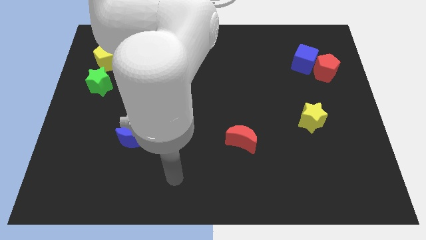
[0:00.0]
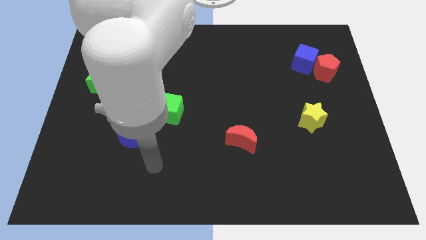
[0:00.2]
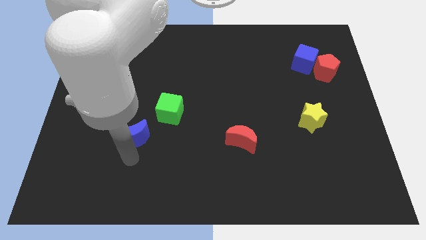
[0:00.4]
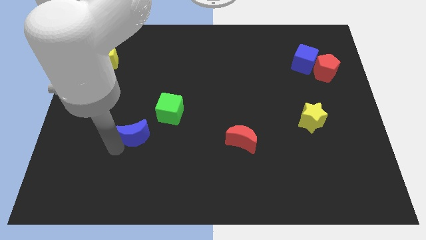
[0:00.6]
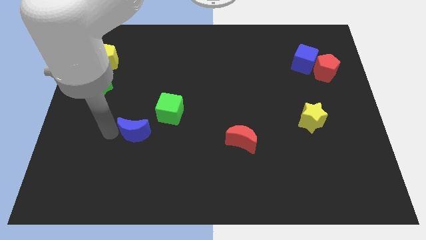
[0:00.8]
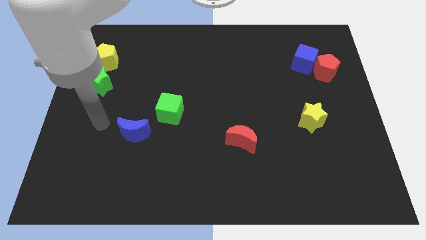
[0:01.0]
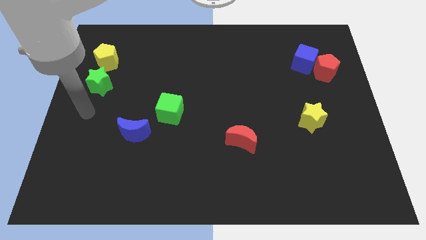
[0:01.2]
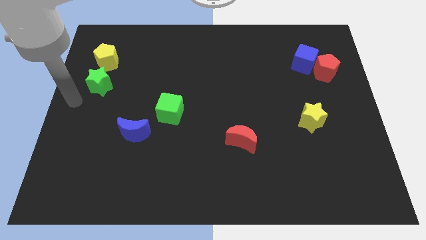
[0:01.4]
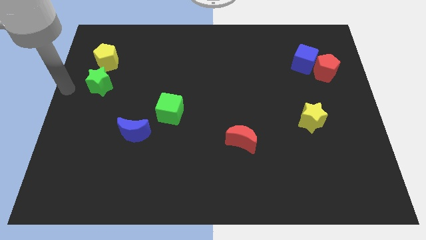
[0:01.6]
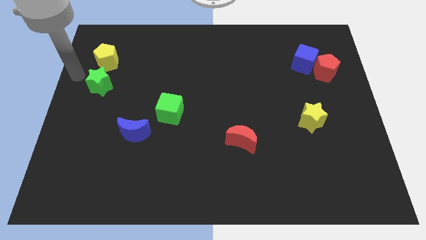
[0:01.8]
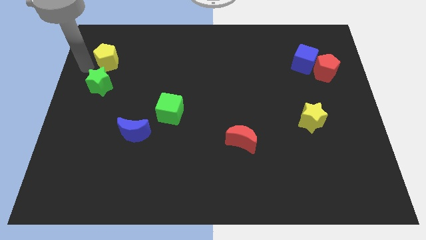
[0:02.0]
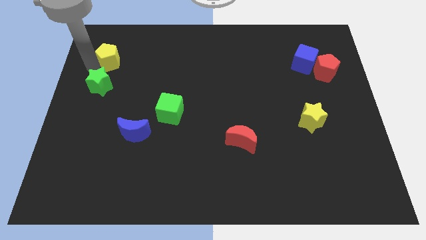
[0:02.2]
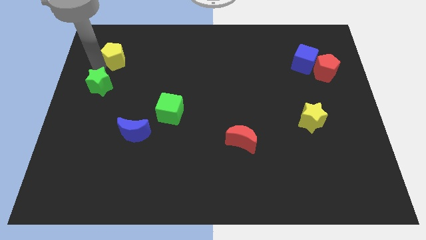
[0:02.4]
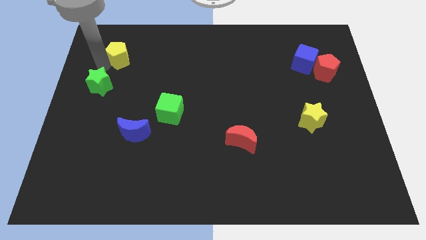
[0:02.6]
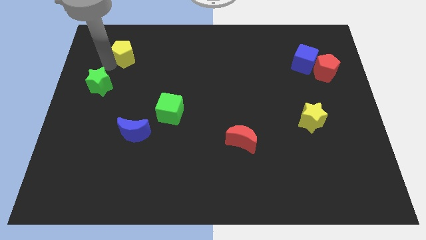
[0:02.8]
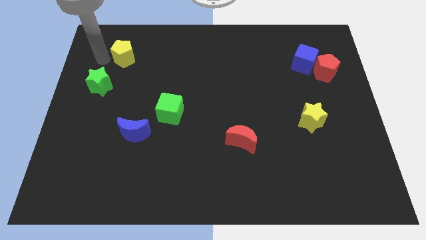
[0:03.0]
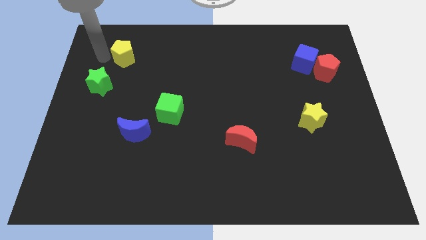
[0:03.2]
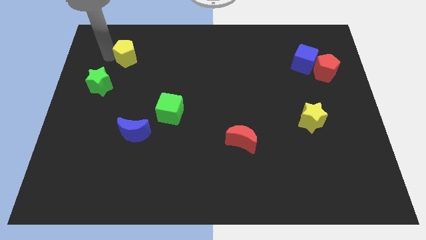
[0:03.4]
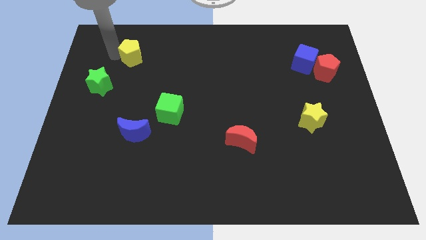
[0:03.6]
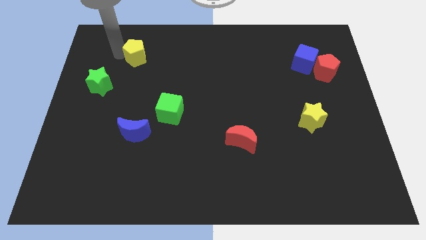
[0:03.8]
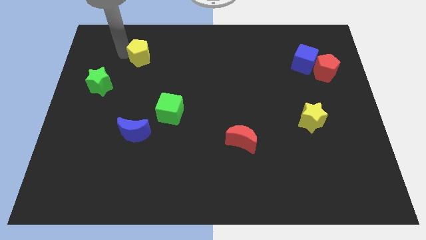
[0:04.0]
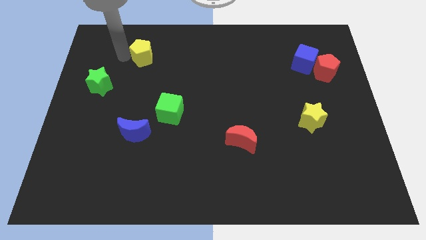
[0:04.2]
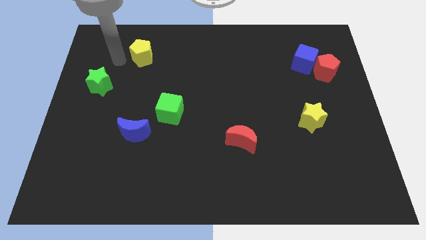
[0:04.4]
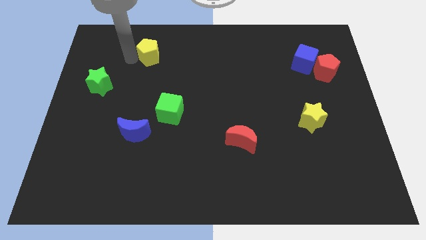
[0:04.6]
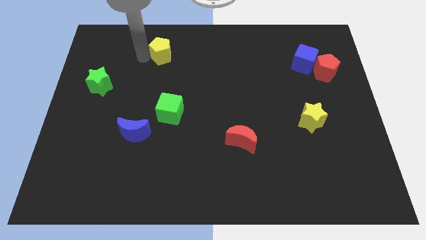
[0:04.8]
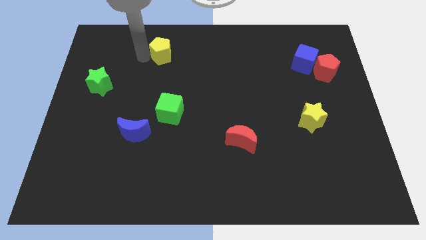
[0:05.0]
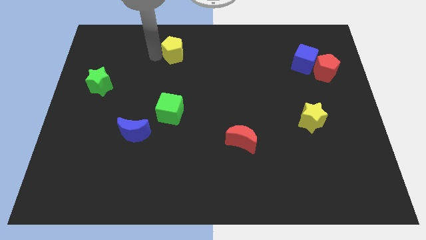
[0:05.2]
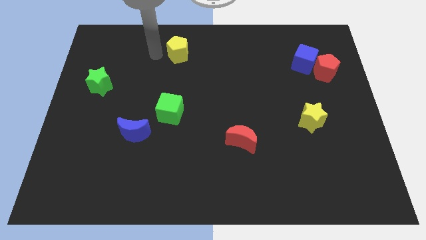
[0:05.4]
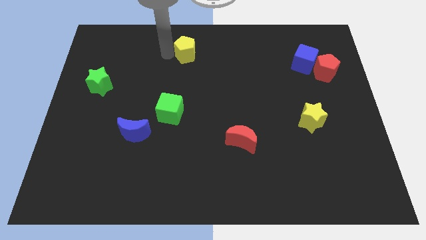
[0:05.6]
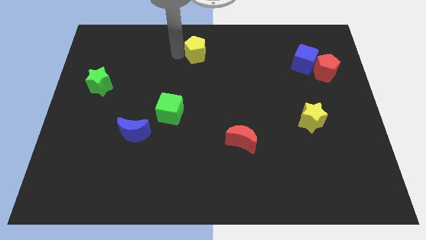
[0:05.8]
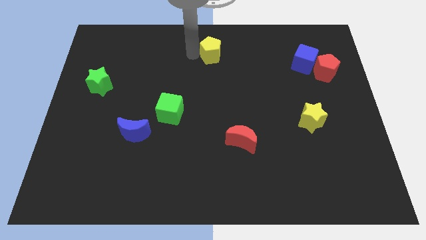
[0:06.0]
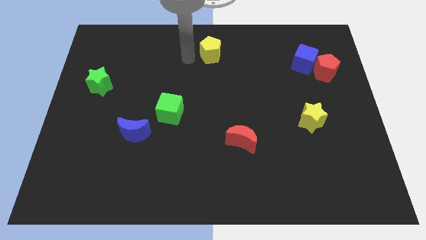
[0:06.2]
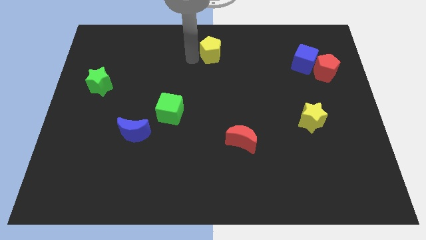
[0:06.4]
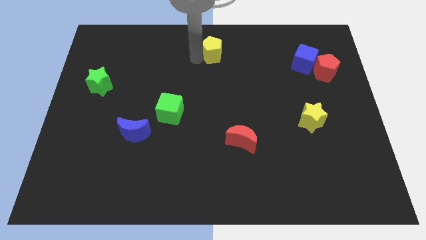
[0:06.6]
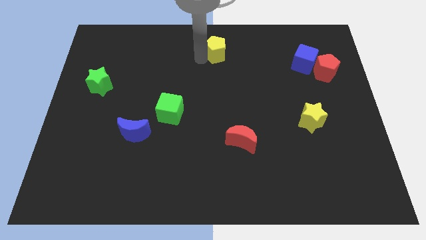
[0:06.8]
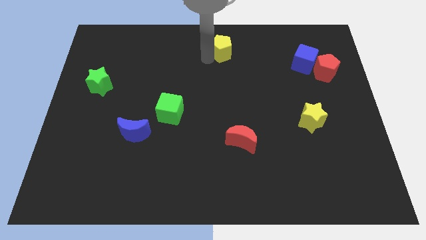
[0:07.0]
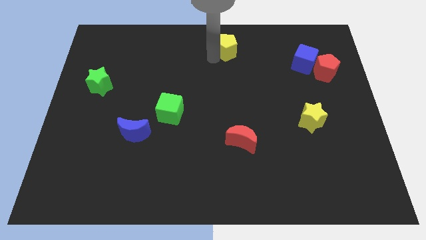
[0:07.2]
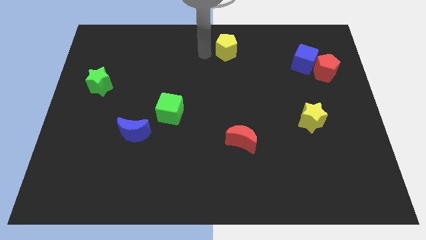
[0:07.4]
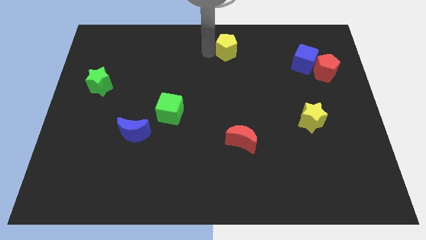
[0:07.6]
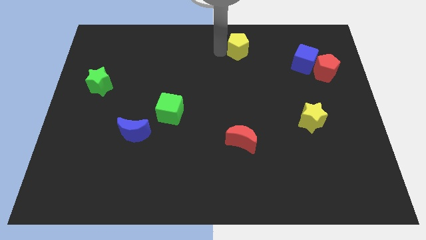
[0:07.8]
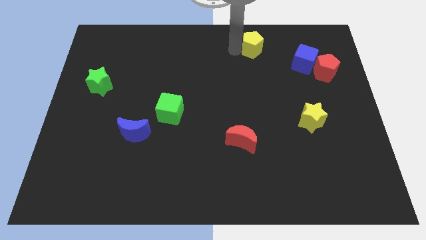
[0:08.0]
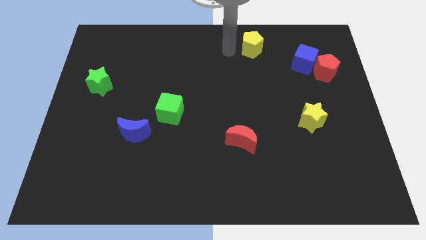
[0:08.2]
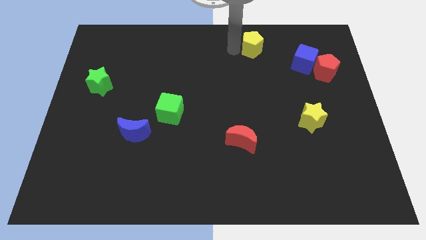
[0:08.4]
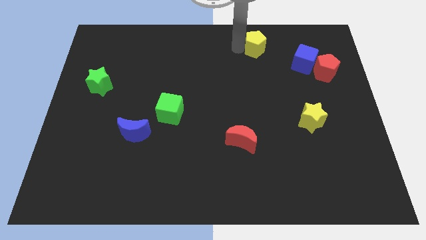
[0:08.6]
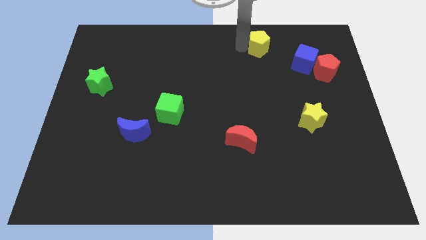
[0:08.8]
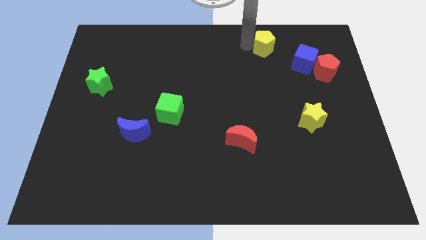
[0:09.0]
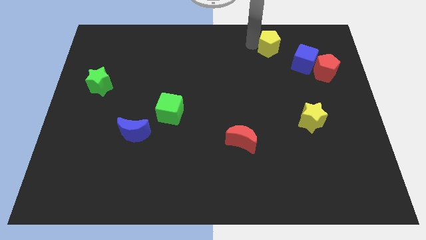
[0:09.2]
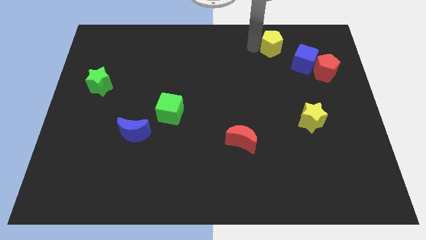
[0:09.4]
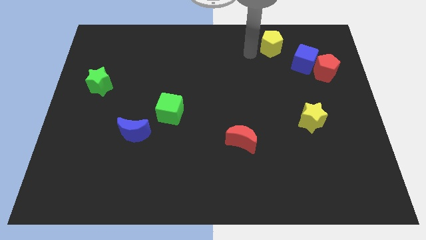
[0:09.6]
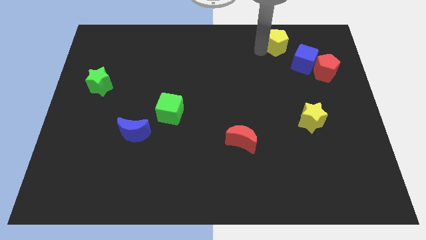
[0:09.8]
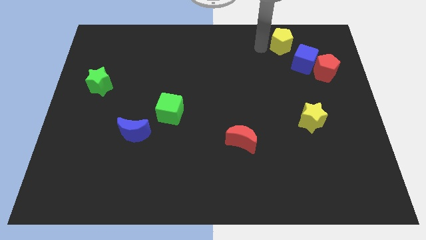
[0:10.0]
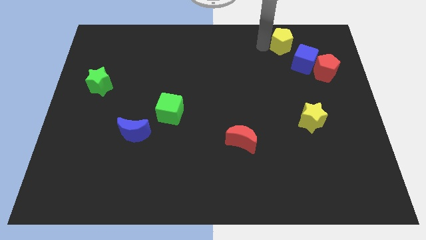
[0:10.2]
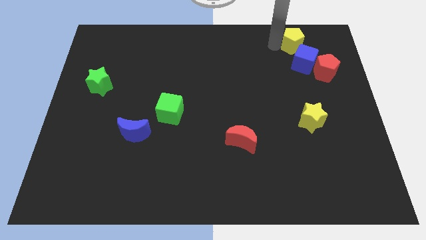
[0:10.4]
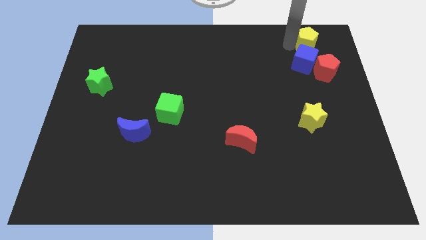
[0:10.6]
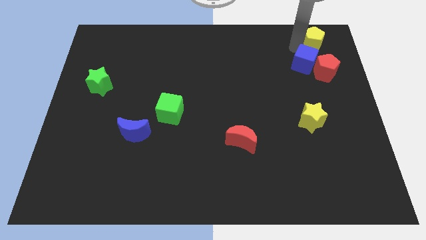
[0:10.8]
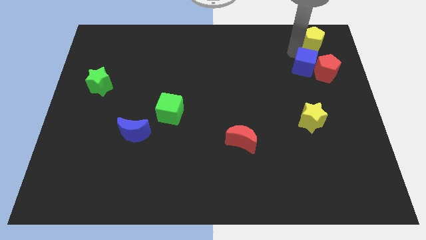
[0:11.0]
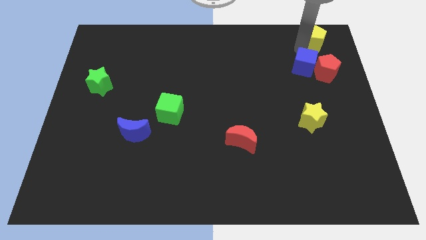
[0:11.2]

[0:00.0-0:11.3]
move the yellow pentagon to the top right

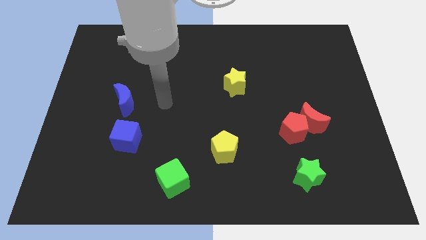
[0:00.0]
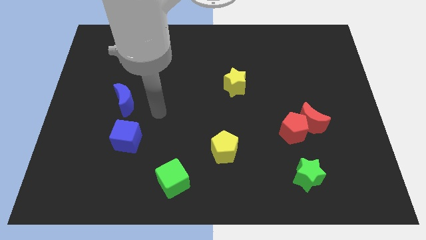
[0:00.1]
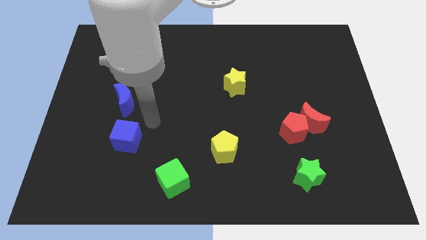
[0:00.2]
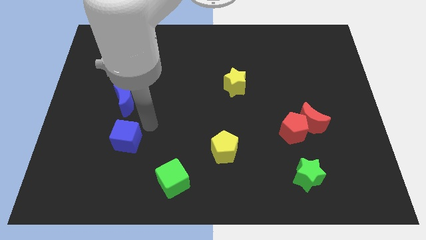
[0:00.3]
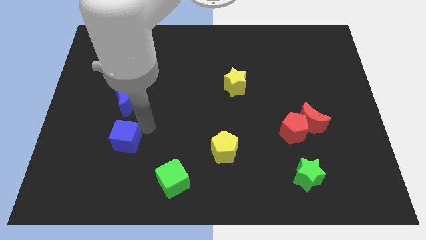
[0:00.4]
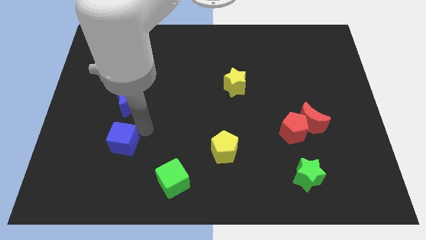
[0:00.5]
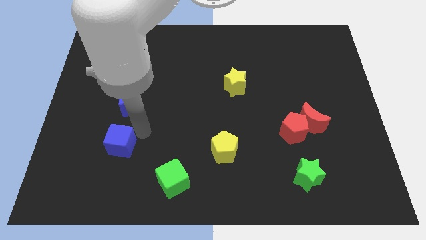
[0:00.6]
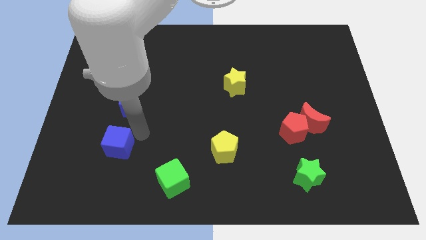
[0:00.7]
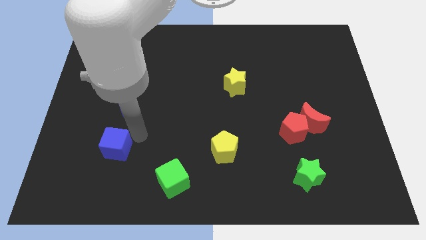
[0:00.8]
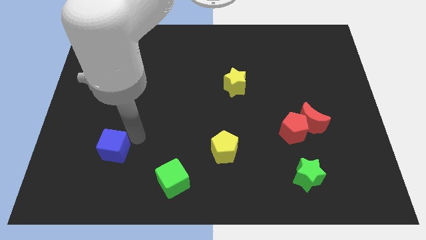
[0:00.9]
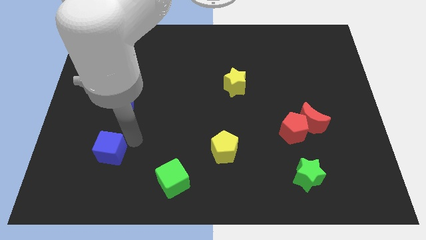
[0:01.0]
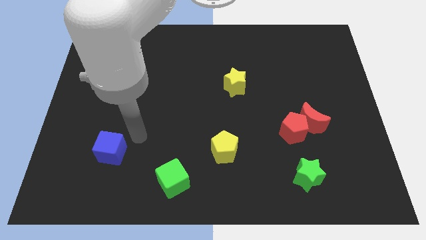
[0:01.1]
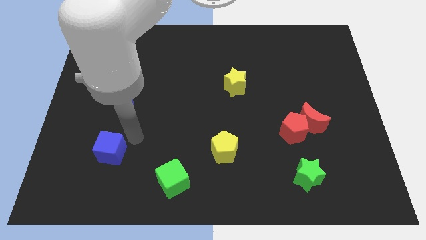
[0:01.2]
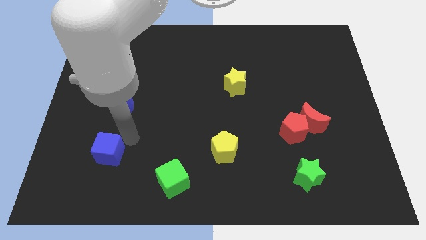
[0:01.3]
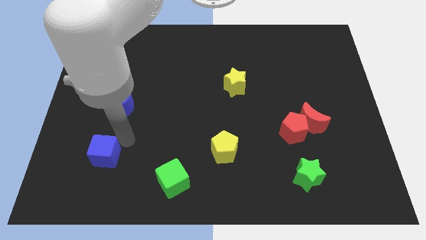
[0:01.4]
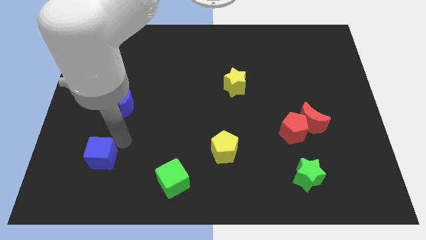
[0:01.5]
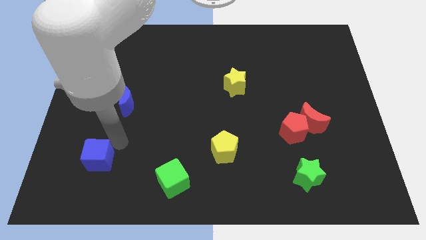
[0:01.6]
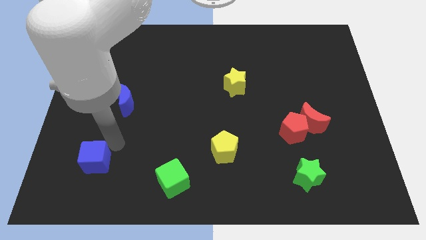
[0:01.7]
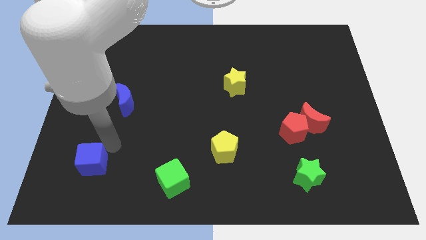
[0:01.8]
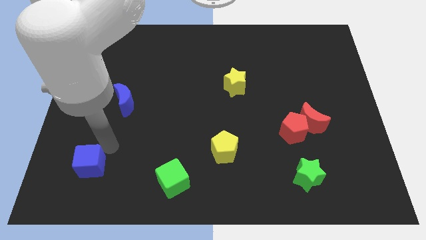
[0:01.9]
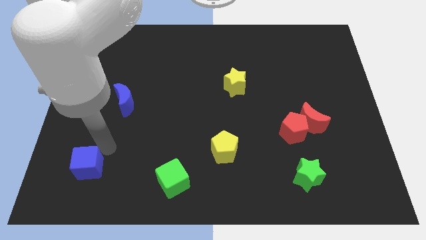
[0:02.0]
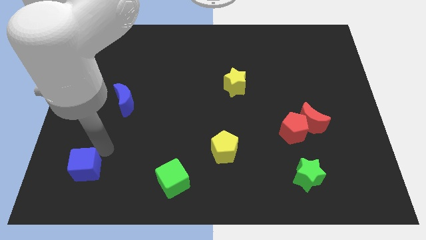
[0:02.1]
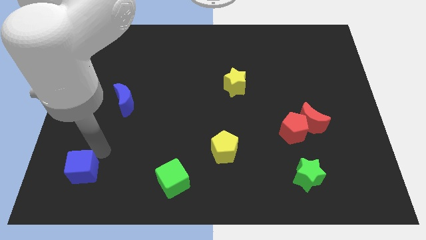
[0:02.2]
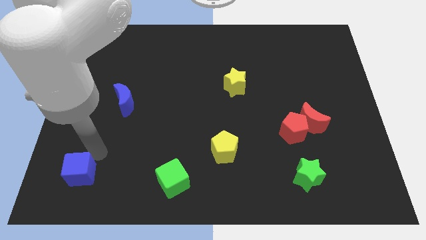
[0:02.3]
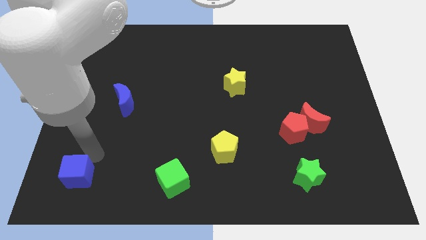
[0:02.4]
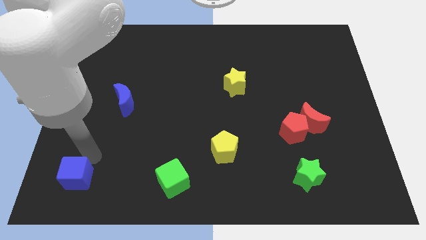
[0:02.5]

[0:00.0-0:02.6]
move the blue cube to the bottom left
